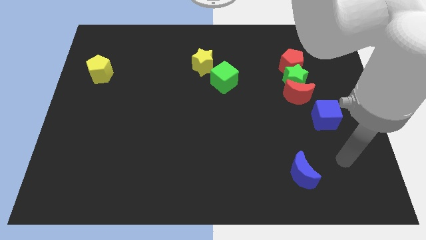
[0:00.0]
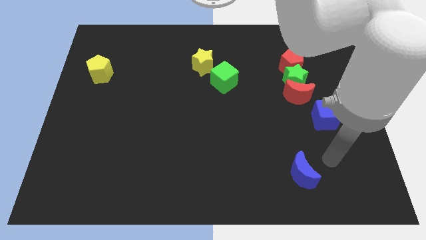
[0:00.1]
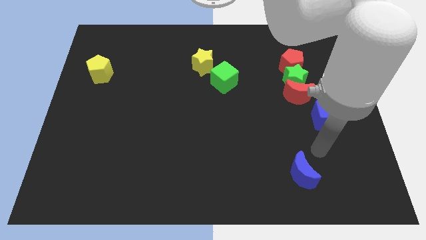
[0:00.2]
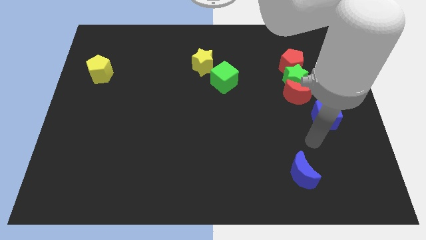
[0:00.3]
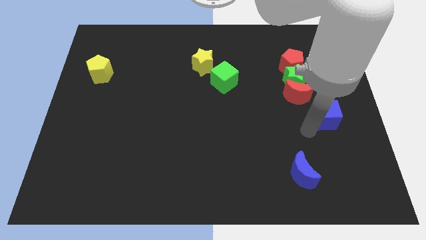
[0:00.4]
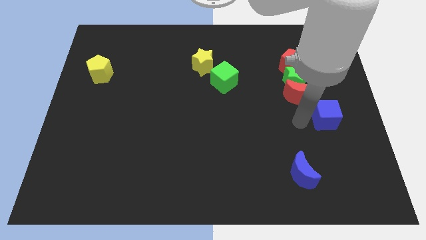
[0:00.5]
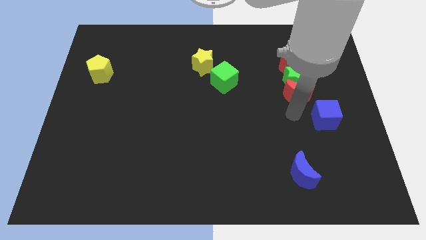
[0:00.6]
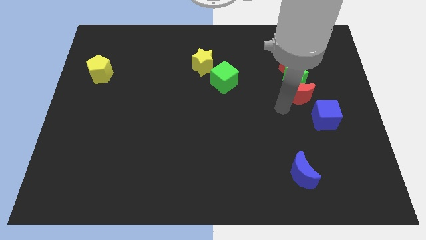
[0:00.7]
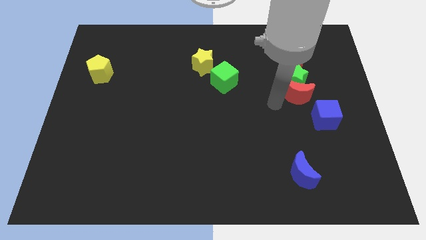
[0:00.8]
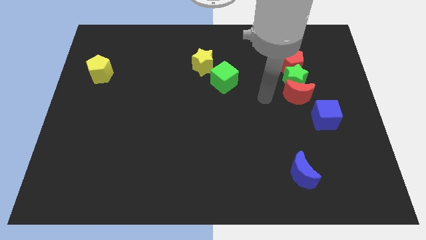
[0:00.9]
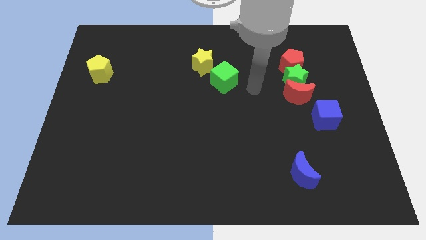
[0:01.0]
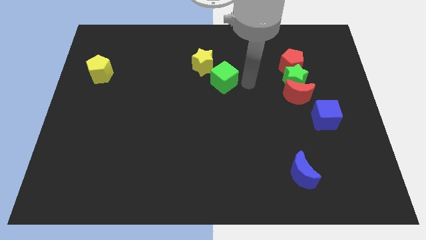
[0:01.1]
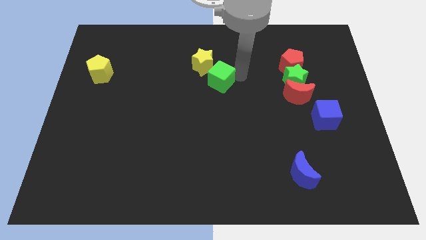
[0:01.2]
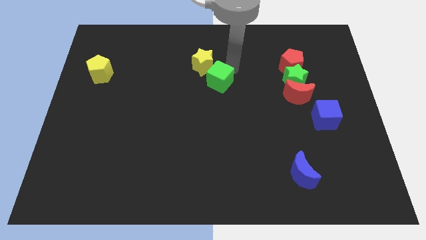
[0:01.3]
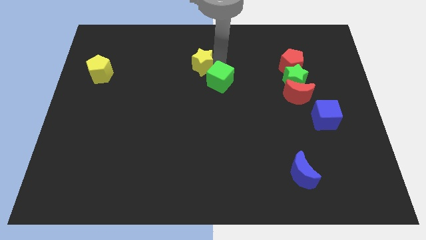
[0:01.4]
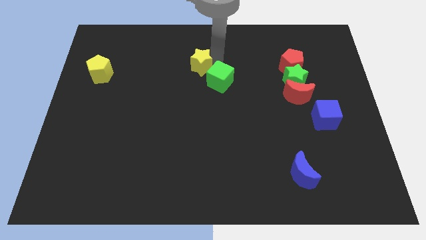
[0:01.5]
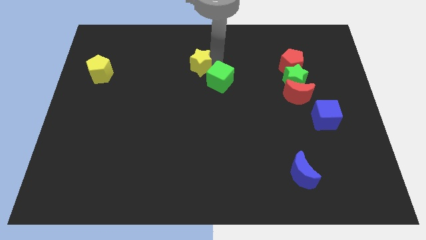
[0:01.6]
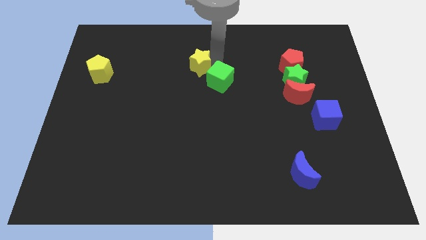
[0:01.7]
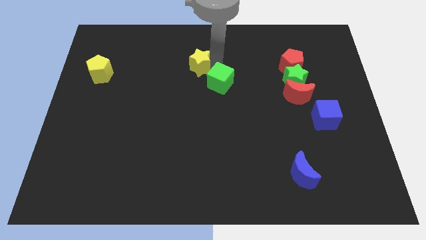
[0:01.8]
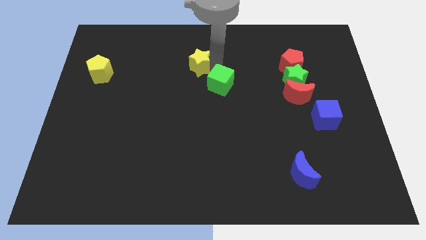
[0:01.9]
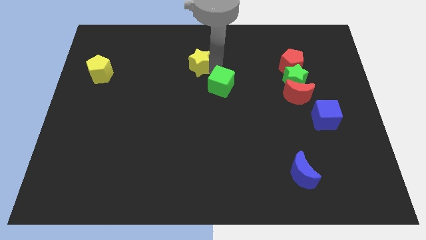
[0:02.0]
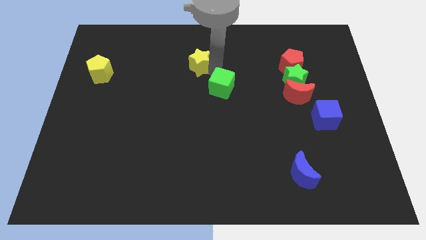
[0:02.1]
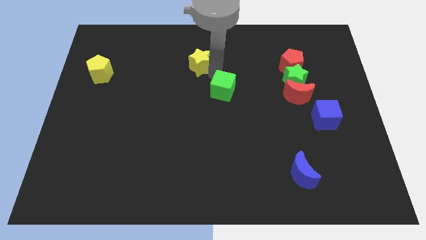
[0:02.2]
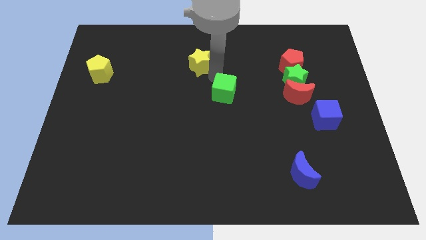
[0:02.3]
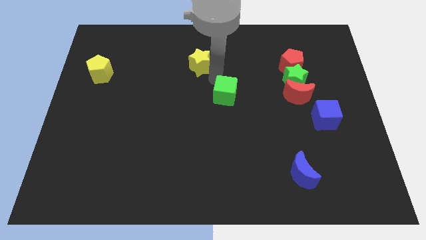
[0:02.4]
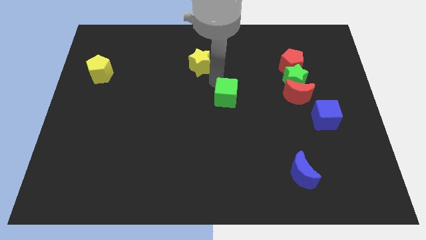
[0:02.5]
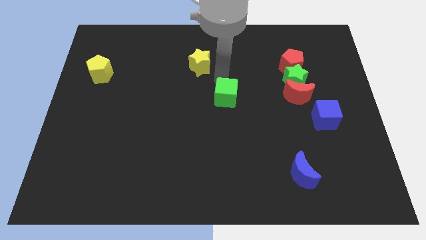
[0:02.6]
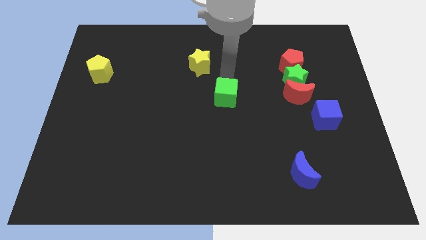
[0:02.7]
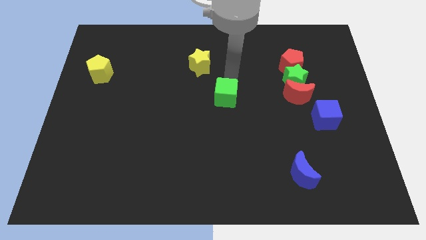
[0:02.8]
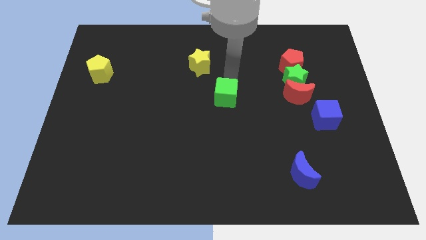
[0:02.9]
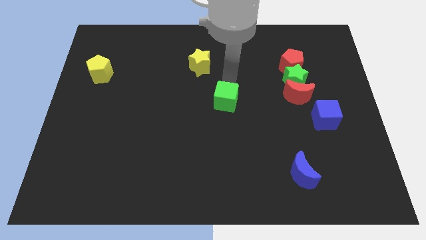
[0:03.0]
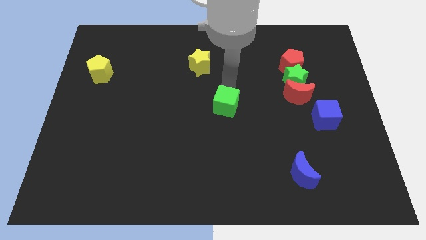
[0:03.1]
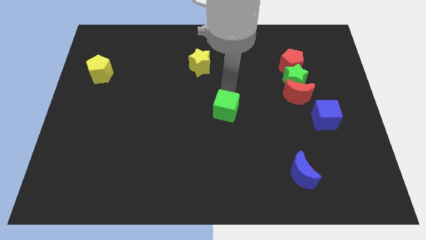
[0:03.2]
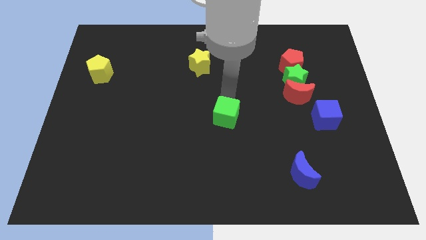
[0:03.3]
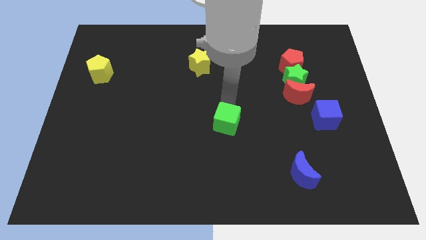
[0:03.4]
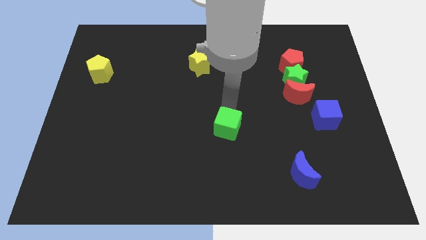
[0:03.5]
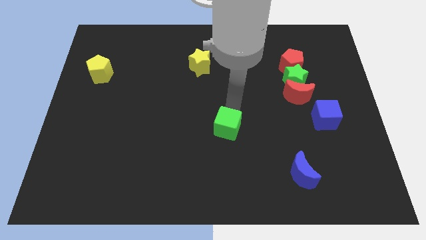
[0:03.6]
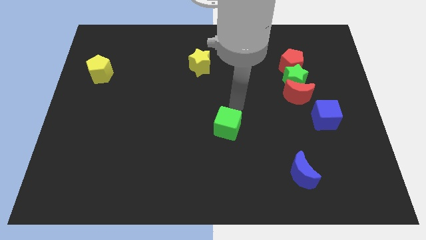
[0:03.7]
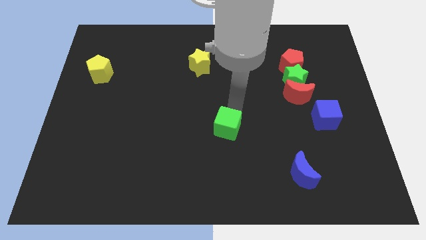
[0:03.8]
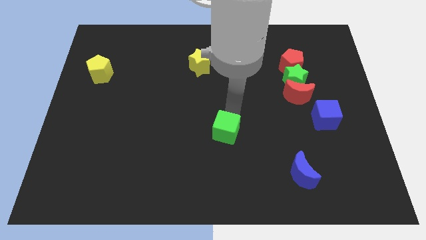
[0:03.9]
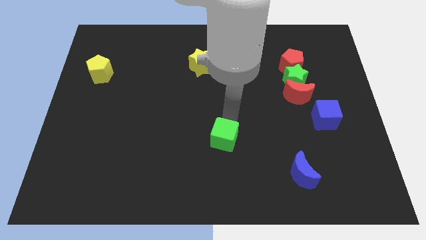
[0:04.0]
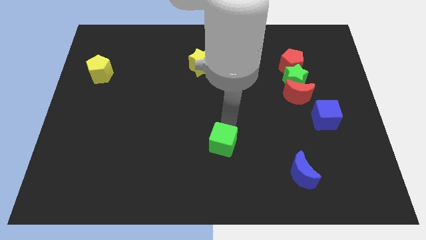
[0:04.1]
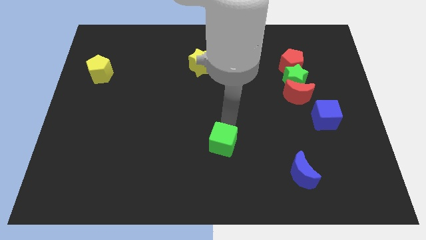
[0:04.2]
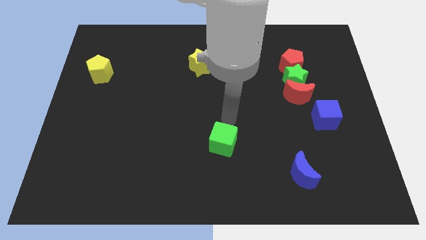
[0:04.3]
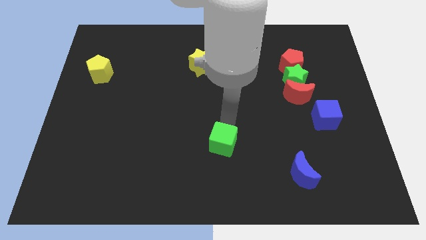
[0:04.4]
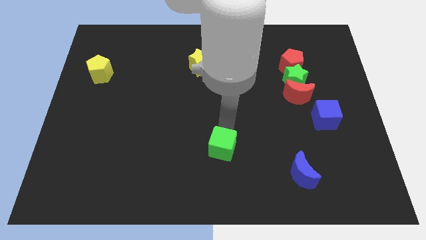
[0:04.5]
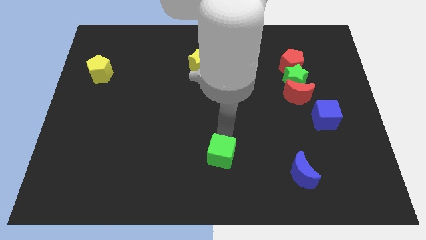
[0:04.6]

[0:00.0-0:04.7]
put the green cube to the bottom side

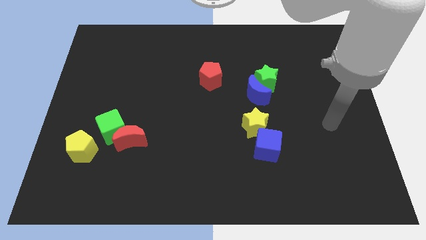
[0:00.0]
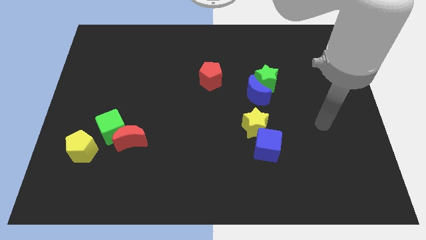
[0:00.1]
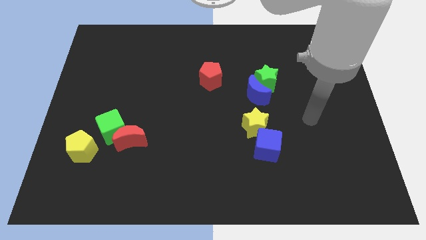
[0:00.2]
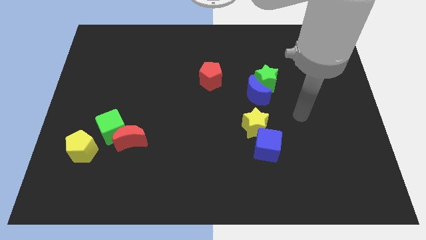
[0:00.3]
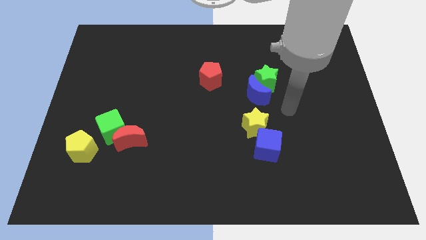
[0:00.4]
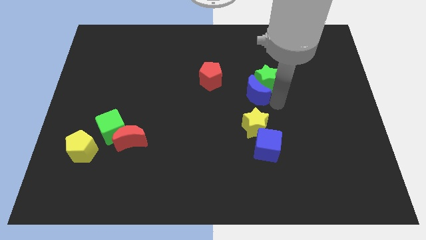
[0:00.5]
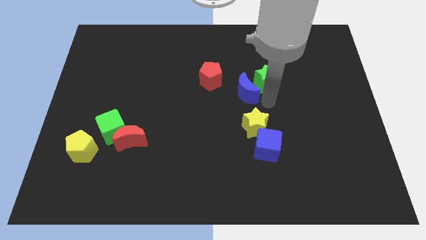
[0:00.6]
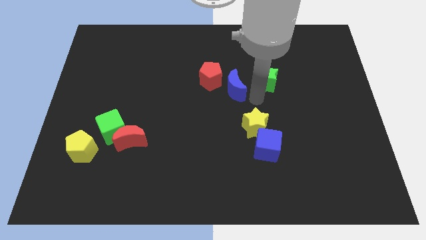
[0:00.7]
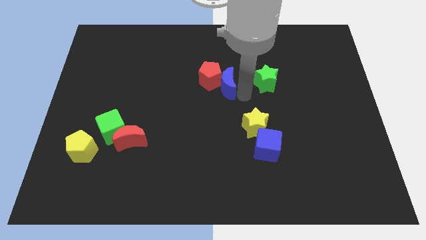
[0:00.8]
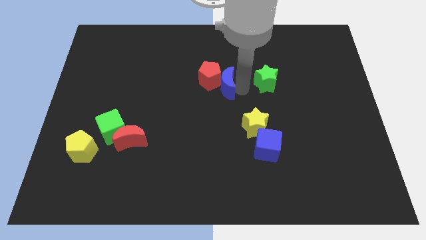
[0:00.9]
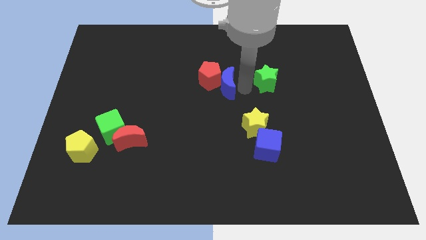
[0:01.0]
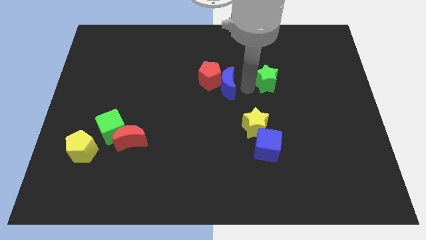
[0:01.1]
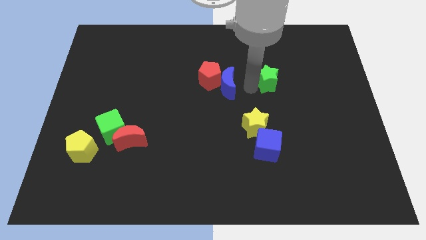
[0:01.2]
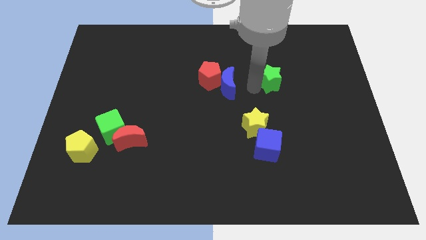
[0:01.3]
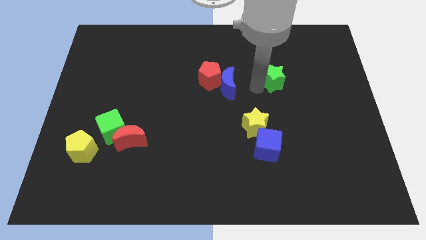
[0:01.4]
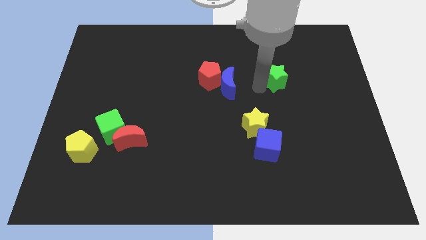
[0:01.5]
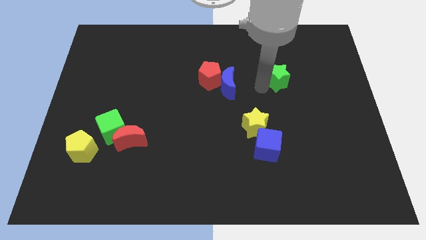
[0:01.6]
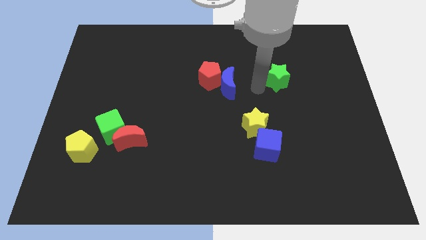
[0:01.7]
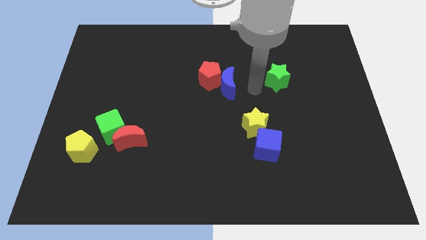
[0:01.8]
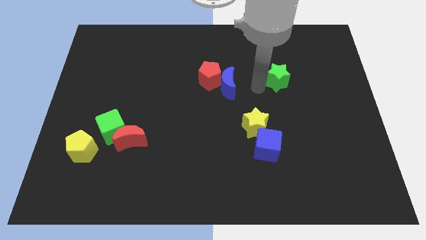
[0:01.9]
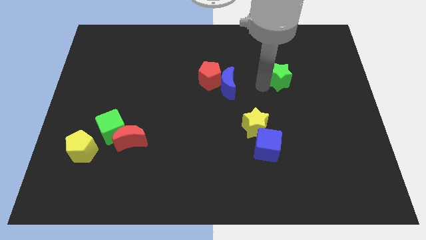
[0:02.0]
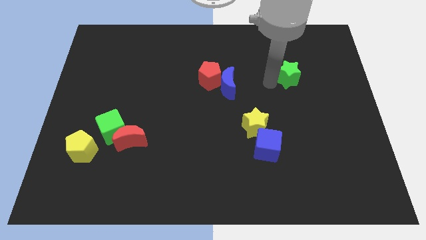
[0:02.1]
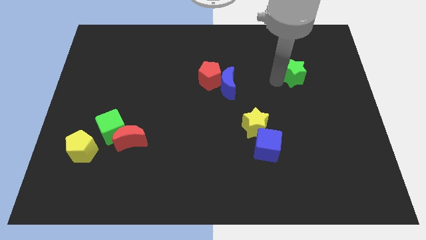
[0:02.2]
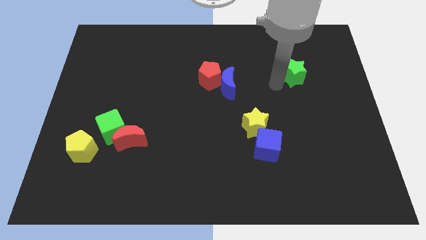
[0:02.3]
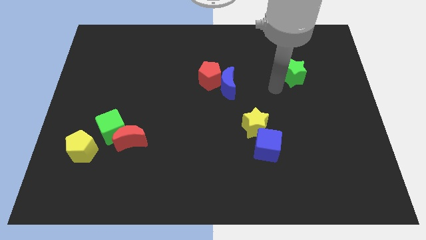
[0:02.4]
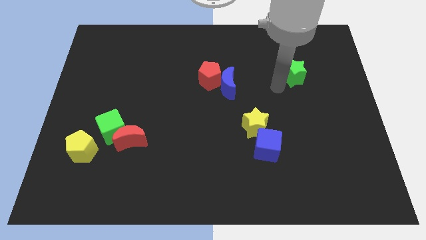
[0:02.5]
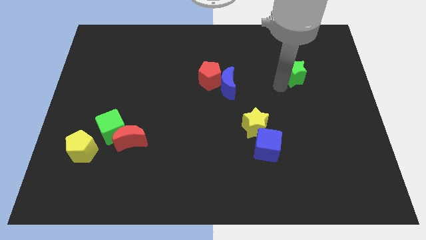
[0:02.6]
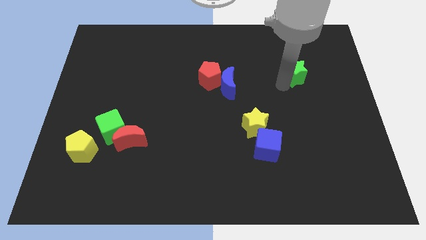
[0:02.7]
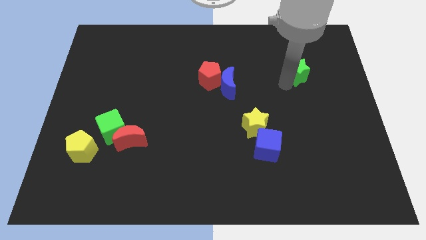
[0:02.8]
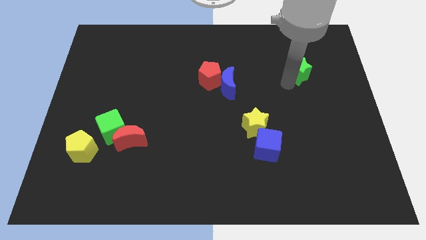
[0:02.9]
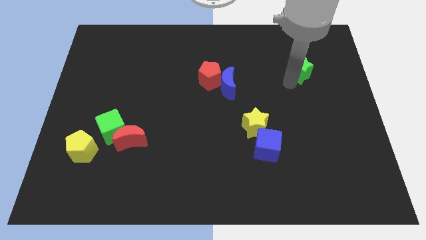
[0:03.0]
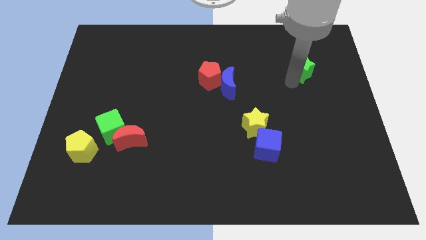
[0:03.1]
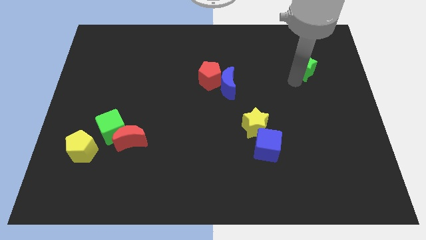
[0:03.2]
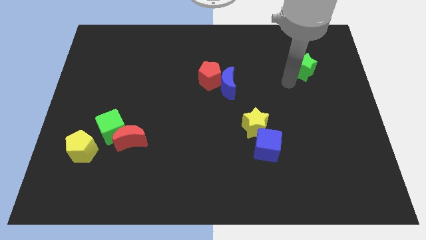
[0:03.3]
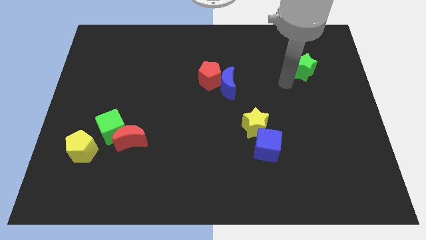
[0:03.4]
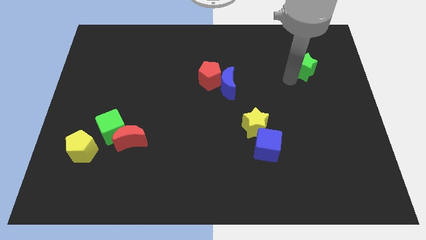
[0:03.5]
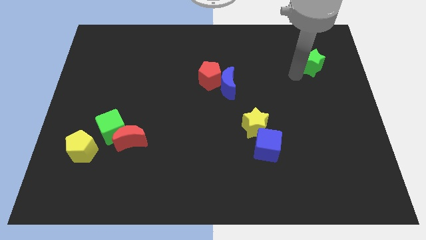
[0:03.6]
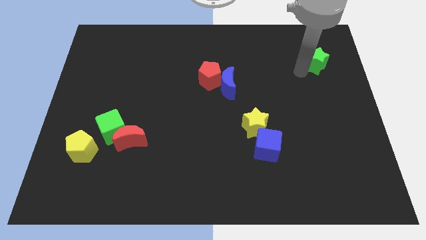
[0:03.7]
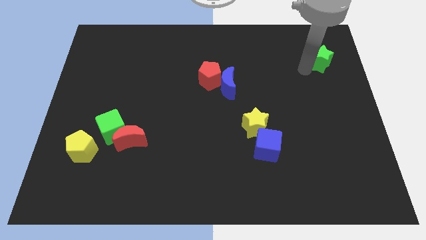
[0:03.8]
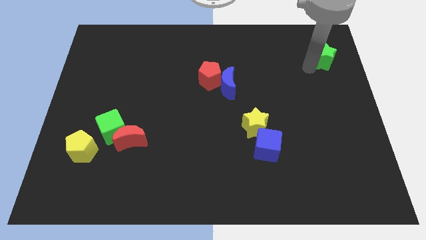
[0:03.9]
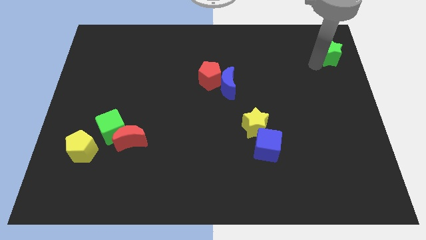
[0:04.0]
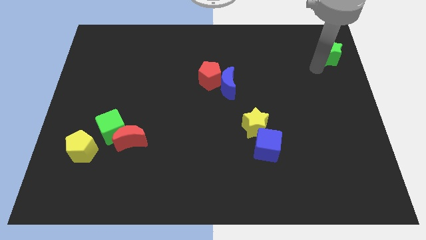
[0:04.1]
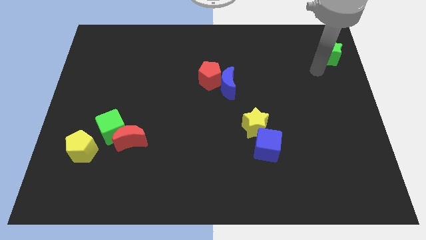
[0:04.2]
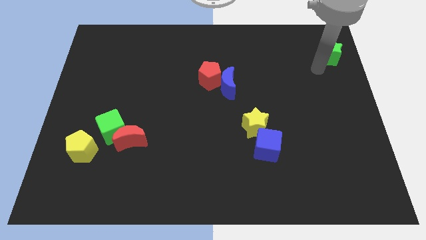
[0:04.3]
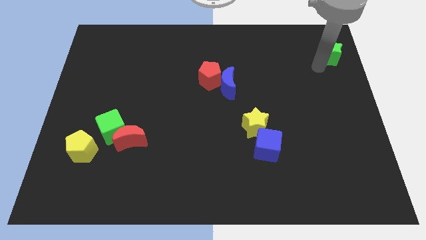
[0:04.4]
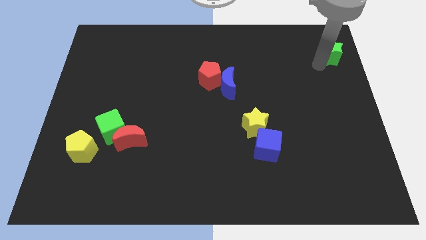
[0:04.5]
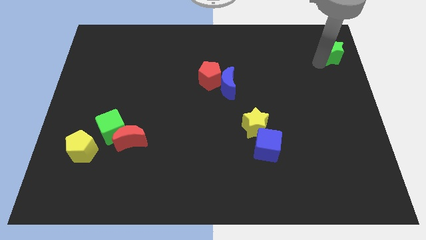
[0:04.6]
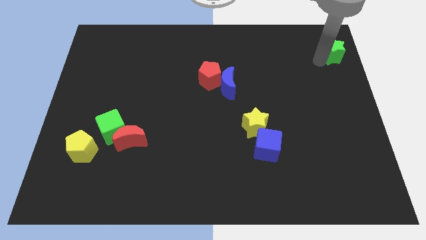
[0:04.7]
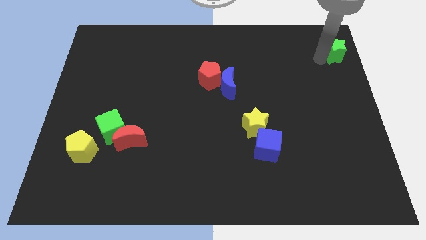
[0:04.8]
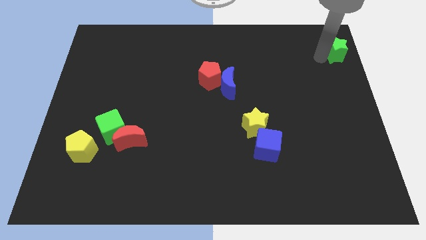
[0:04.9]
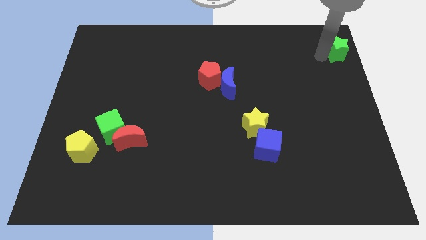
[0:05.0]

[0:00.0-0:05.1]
put the green star to the upper right corner
